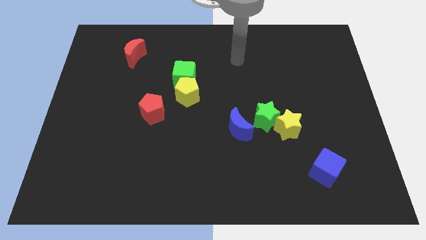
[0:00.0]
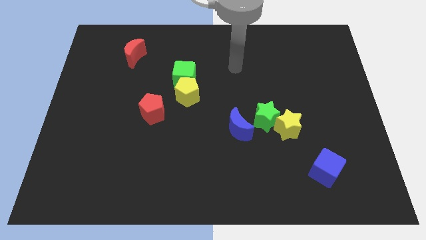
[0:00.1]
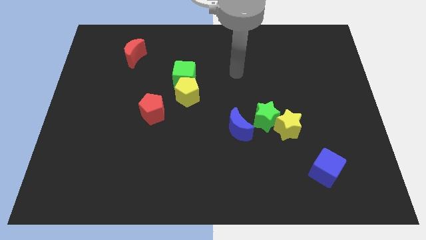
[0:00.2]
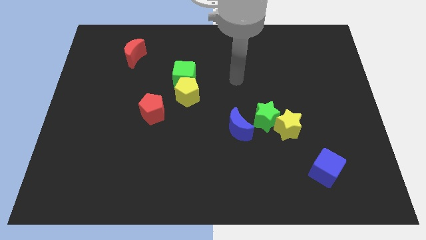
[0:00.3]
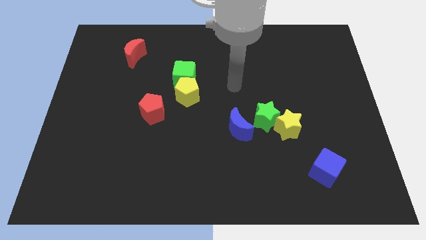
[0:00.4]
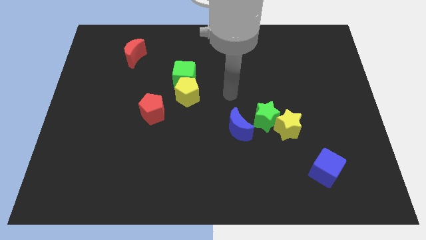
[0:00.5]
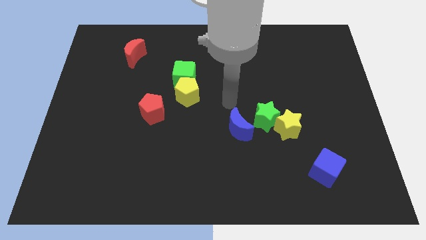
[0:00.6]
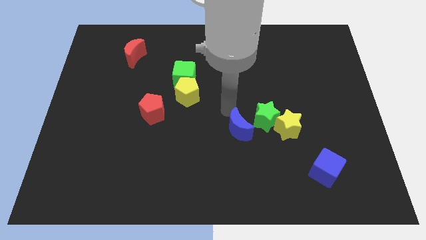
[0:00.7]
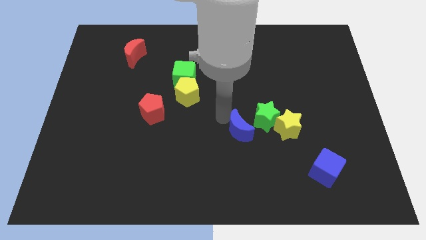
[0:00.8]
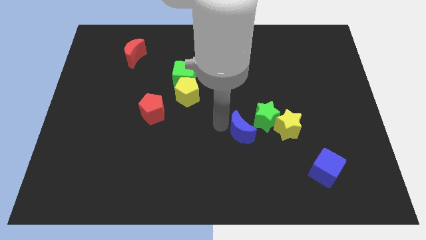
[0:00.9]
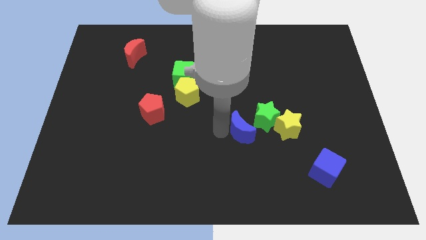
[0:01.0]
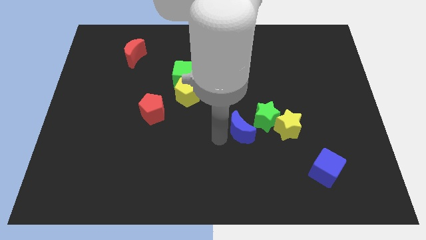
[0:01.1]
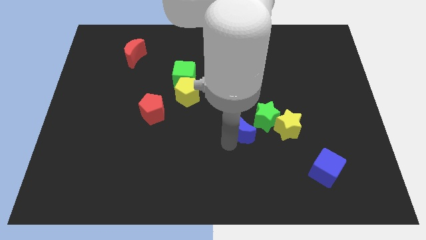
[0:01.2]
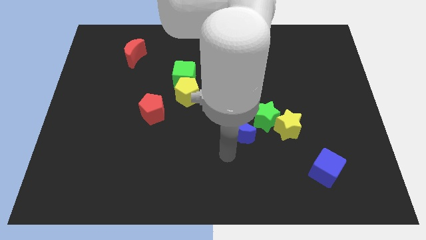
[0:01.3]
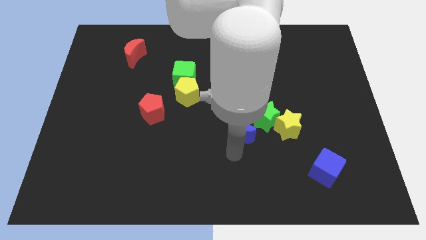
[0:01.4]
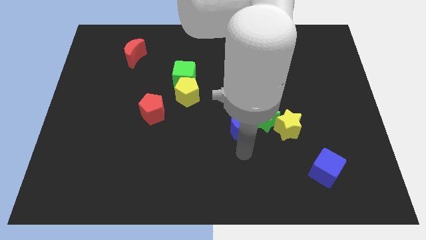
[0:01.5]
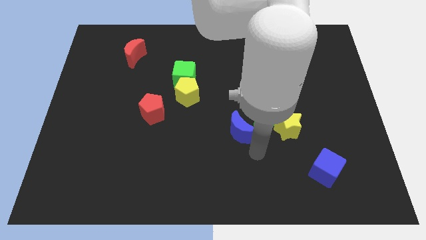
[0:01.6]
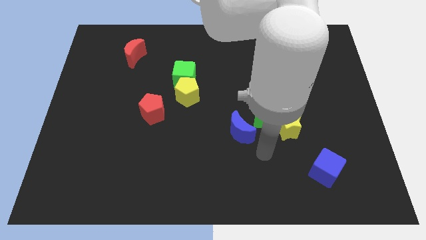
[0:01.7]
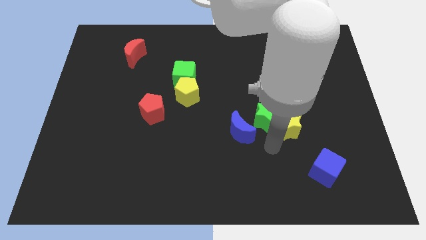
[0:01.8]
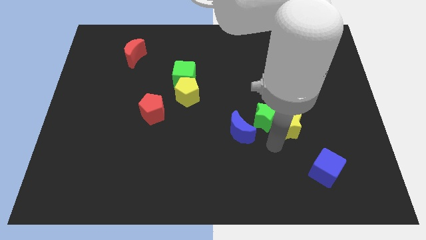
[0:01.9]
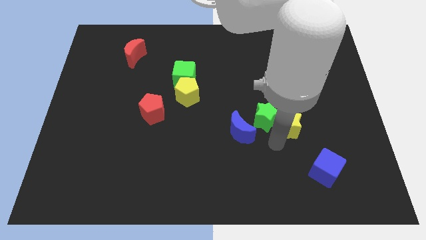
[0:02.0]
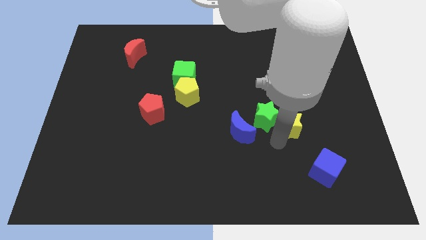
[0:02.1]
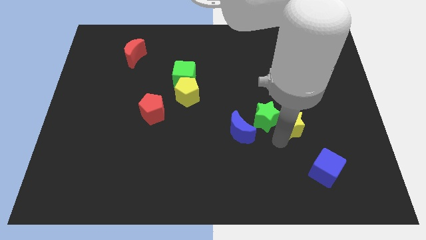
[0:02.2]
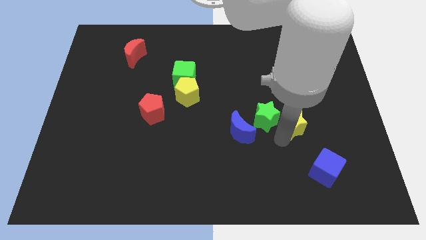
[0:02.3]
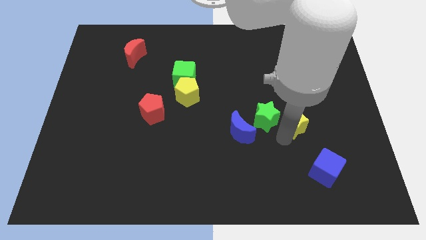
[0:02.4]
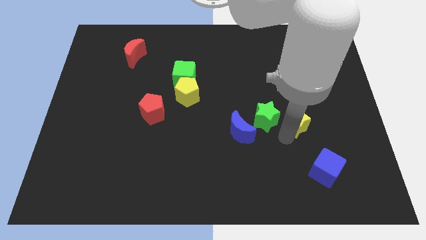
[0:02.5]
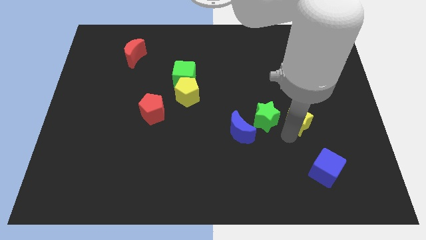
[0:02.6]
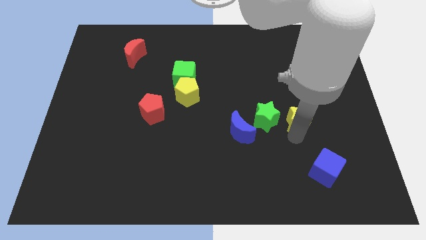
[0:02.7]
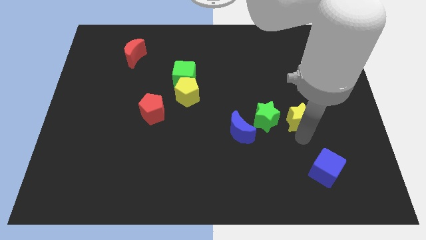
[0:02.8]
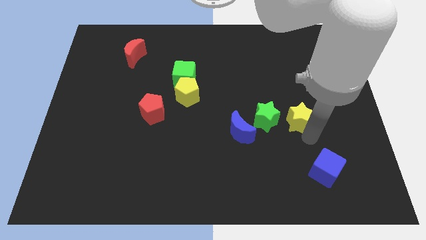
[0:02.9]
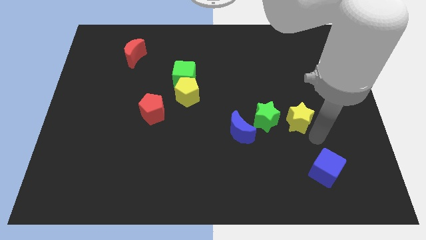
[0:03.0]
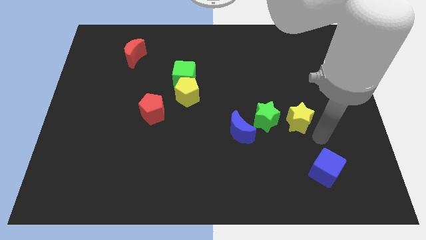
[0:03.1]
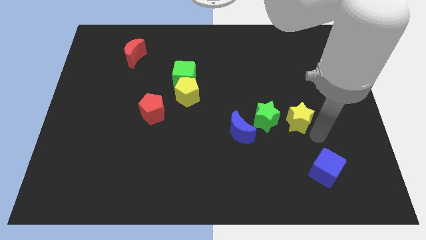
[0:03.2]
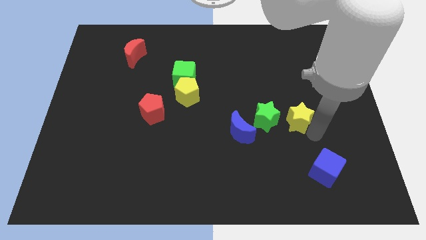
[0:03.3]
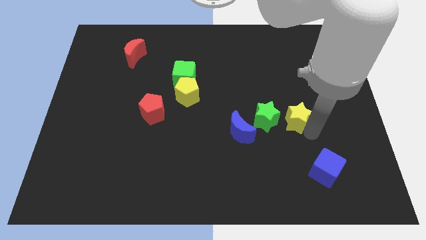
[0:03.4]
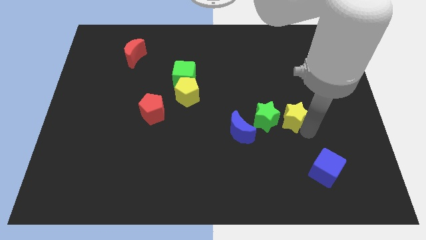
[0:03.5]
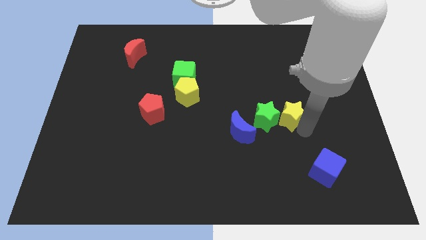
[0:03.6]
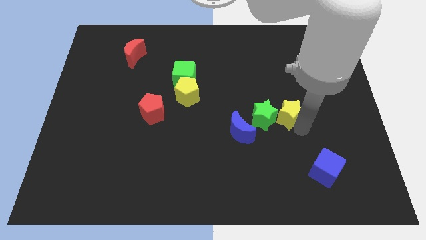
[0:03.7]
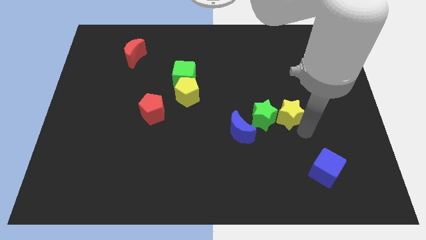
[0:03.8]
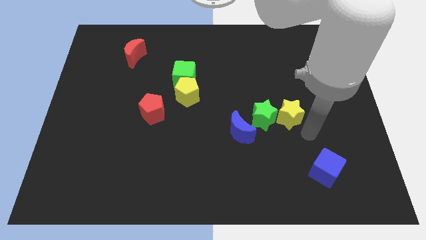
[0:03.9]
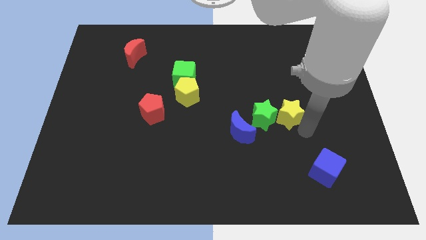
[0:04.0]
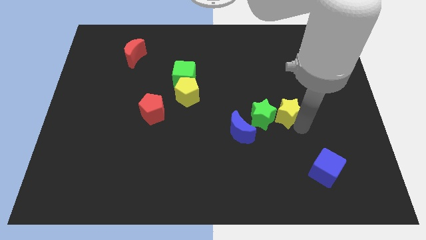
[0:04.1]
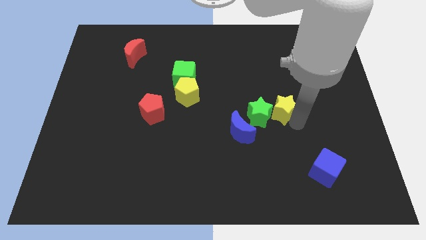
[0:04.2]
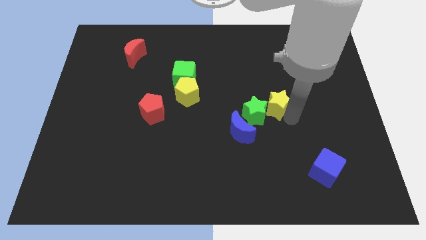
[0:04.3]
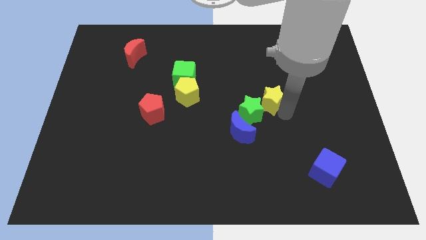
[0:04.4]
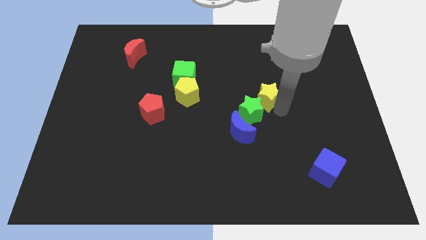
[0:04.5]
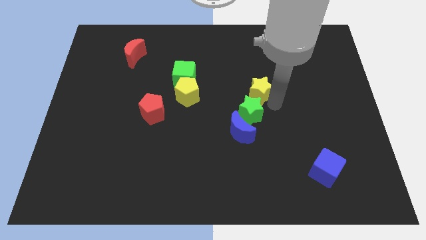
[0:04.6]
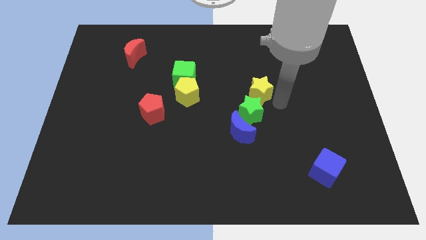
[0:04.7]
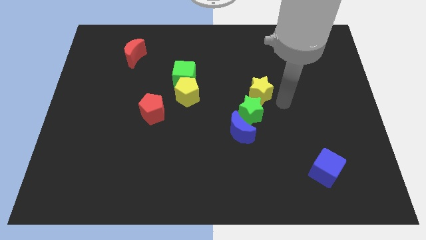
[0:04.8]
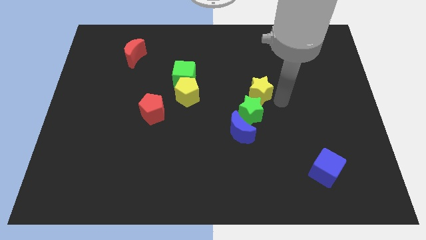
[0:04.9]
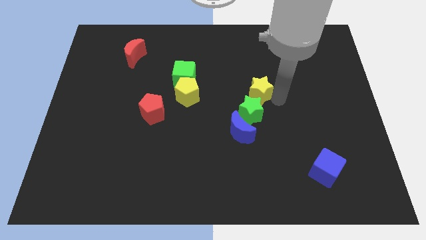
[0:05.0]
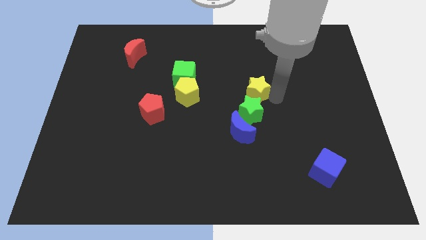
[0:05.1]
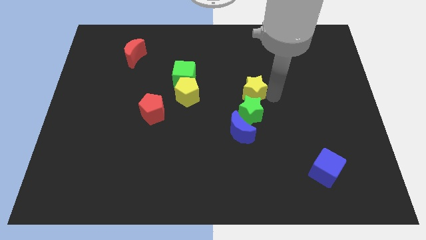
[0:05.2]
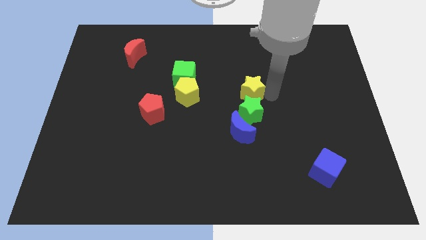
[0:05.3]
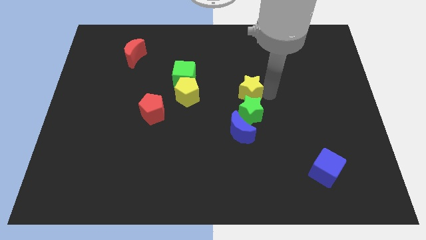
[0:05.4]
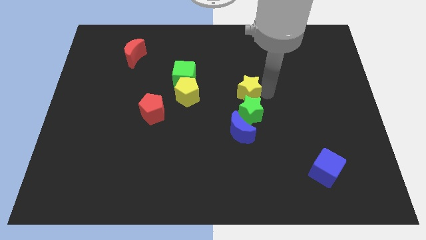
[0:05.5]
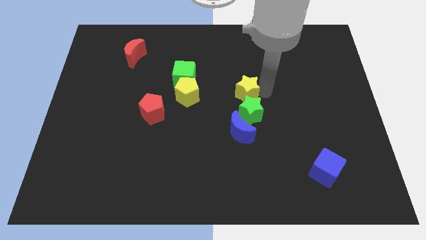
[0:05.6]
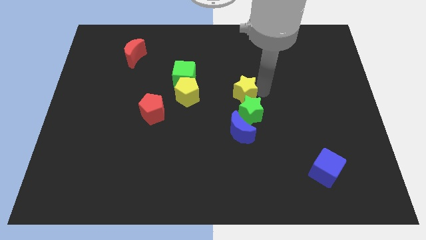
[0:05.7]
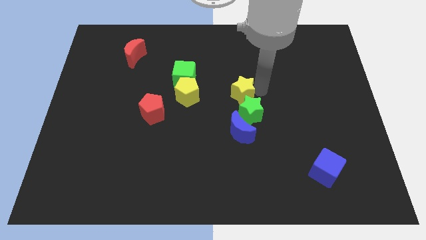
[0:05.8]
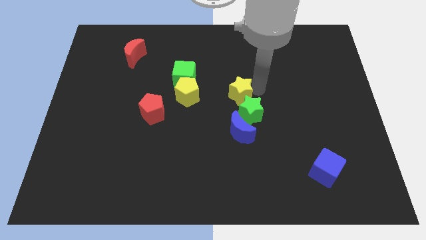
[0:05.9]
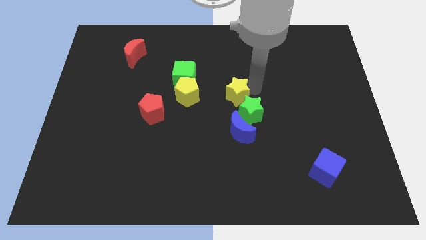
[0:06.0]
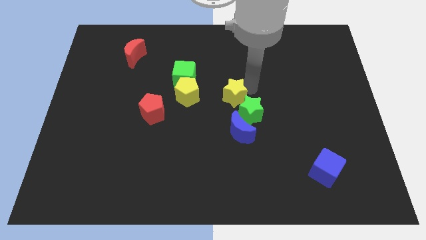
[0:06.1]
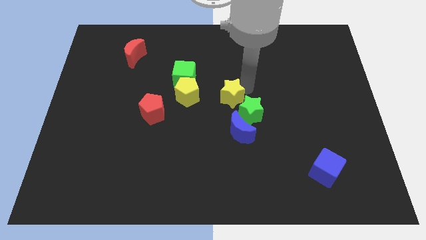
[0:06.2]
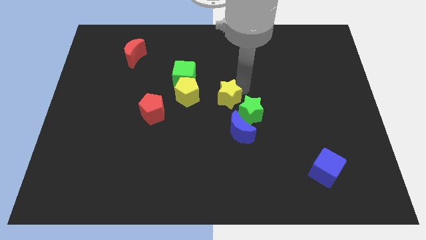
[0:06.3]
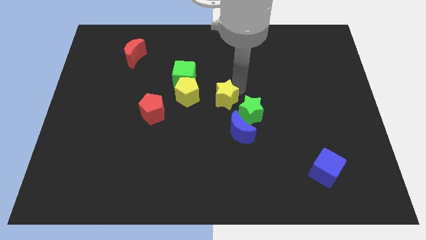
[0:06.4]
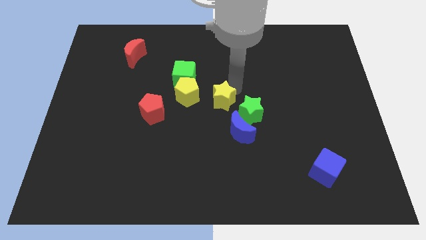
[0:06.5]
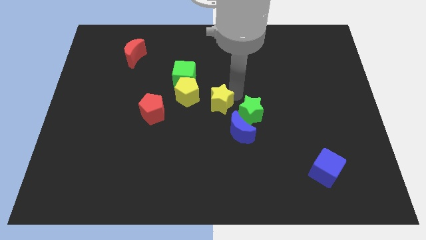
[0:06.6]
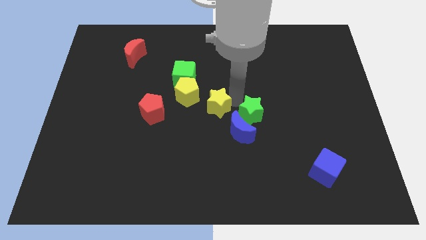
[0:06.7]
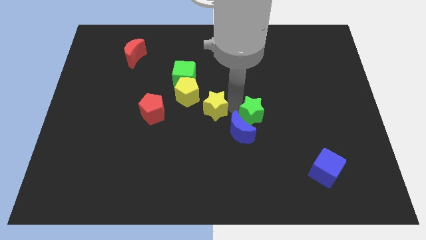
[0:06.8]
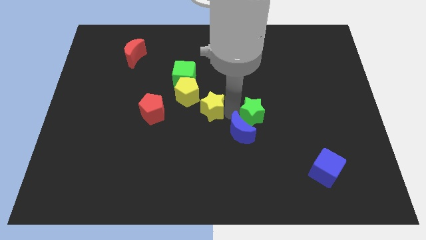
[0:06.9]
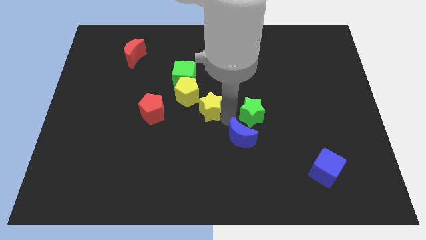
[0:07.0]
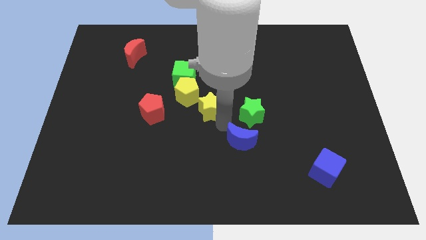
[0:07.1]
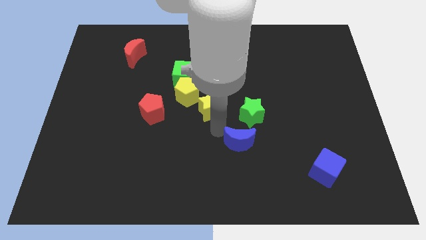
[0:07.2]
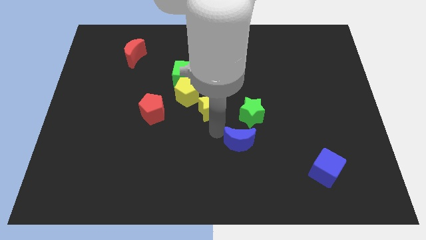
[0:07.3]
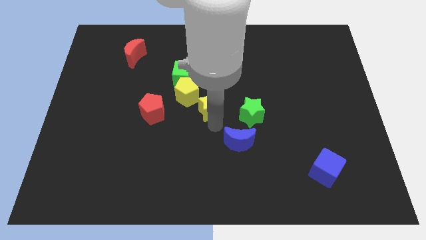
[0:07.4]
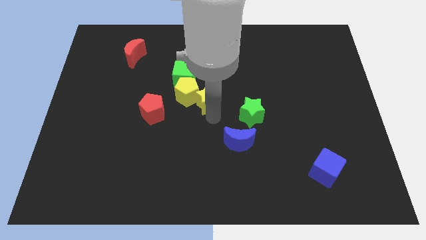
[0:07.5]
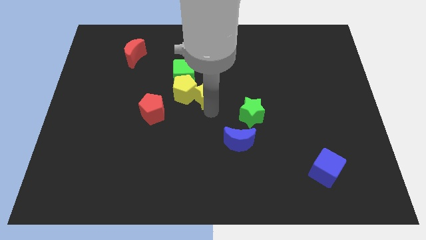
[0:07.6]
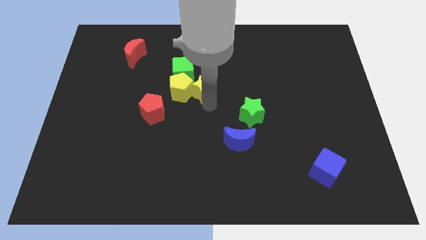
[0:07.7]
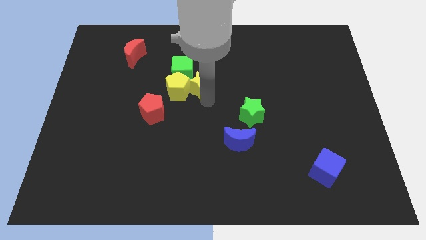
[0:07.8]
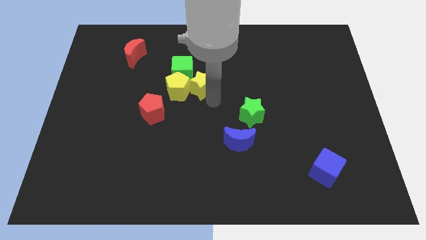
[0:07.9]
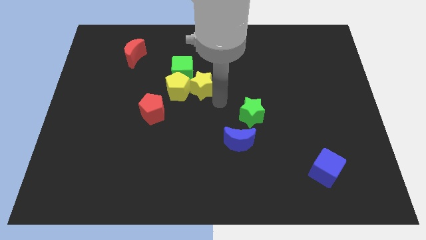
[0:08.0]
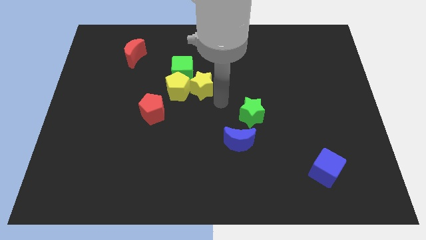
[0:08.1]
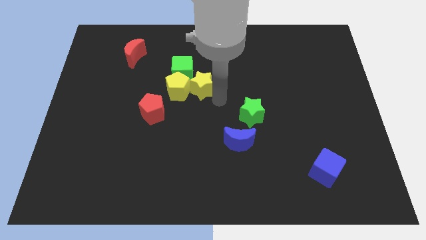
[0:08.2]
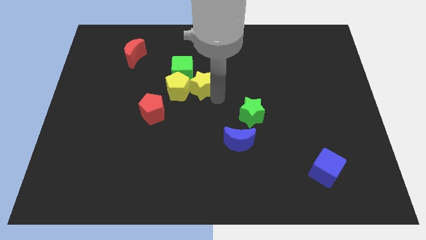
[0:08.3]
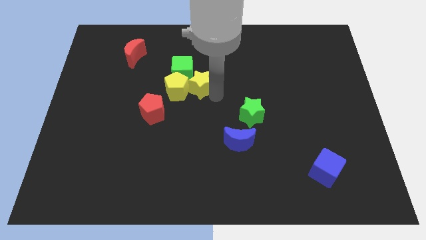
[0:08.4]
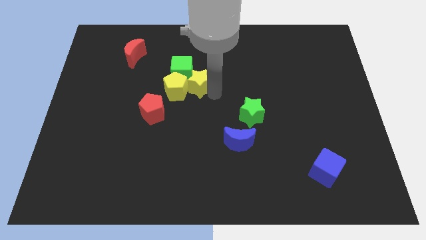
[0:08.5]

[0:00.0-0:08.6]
put the yellow star to the green cube
